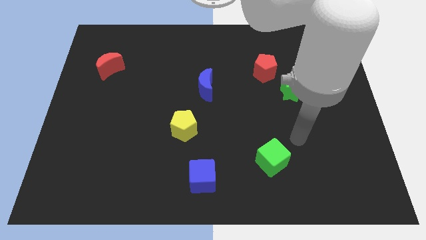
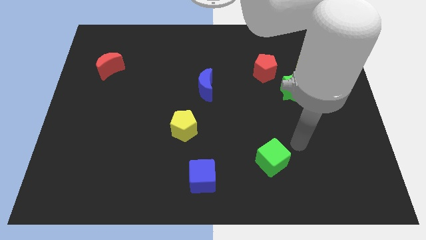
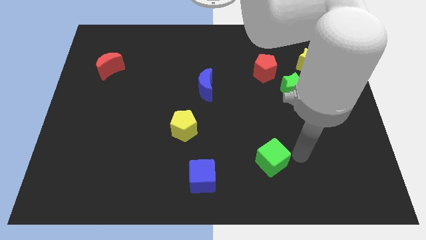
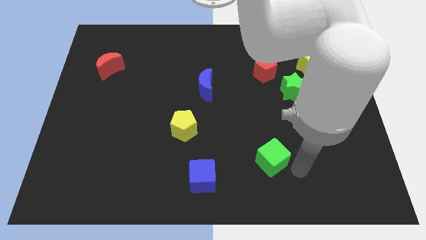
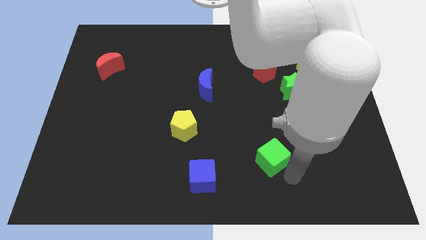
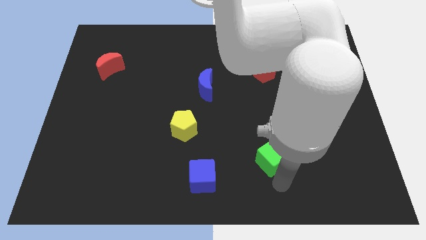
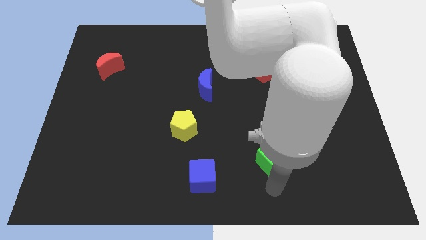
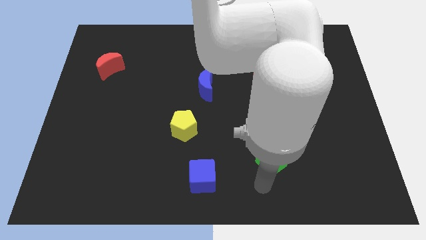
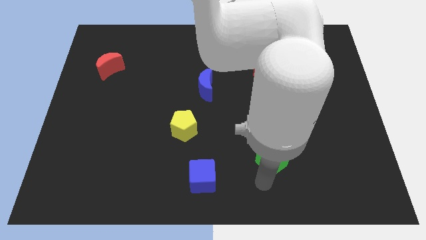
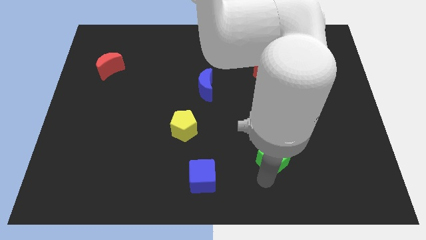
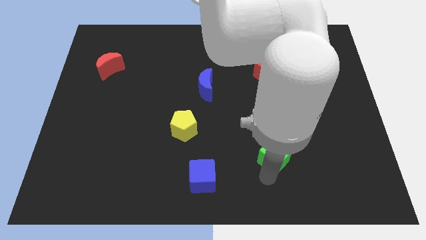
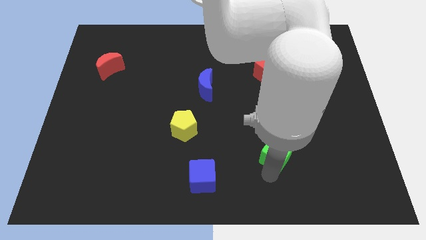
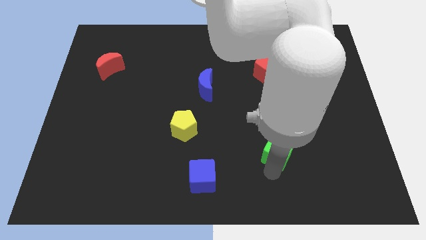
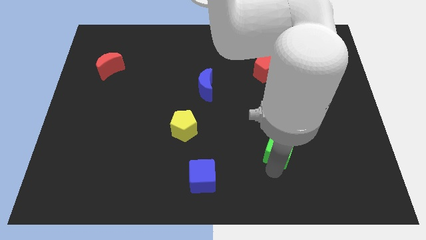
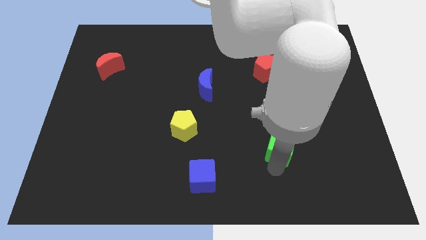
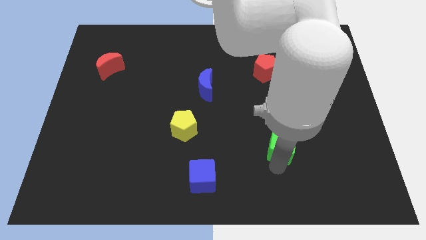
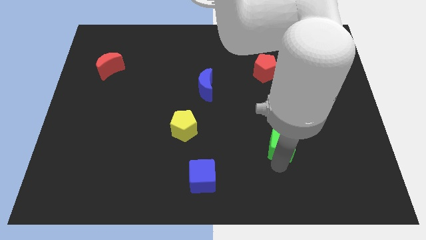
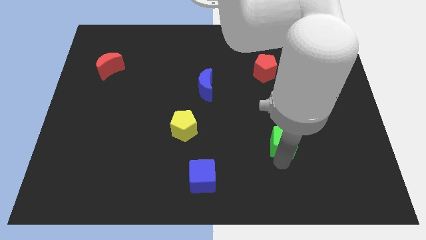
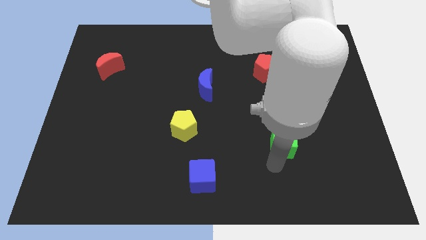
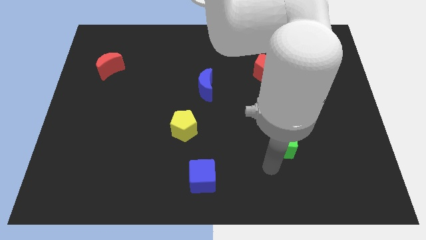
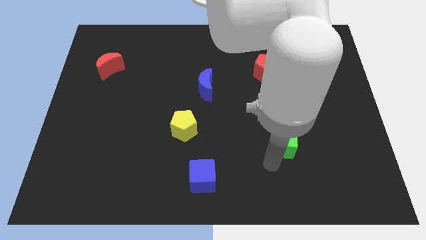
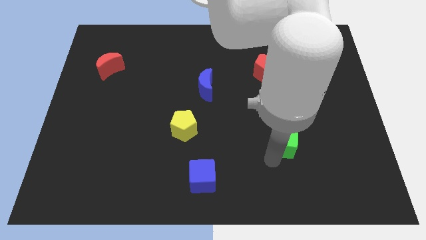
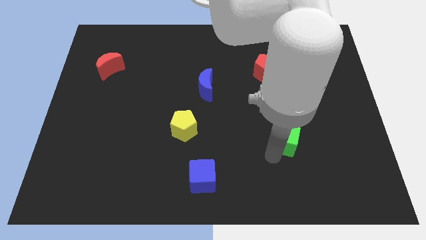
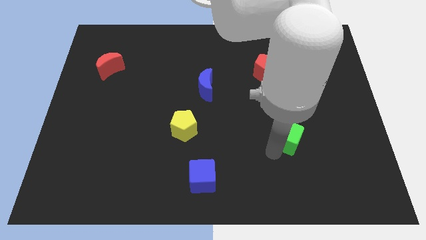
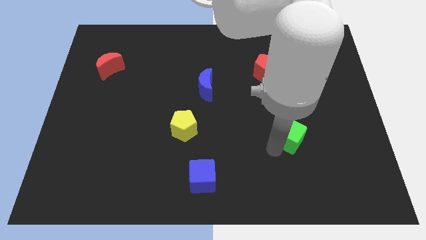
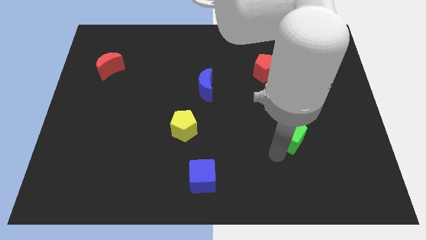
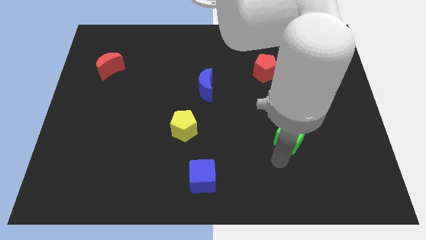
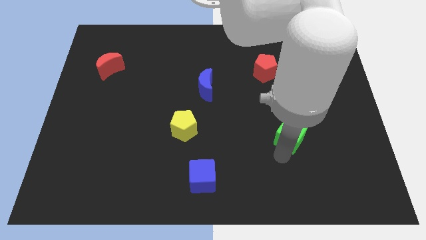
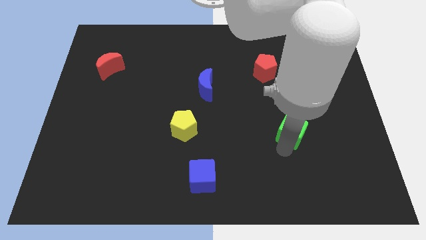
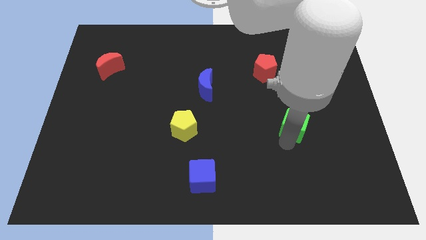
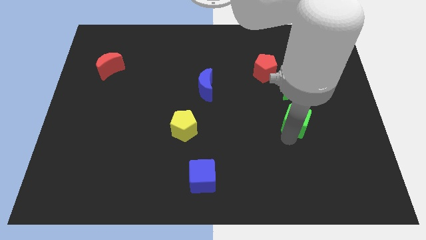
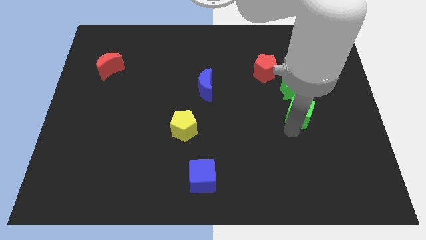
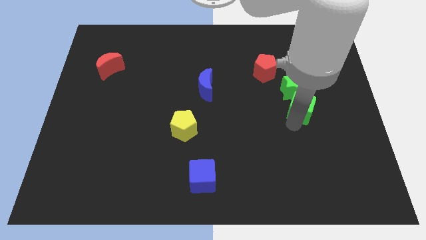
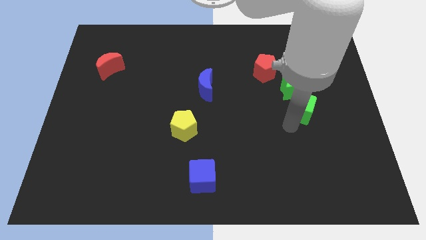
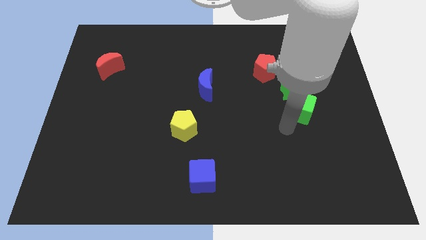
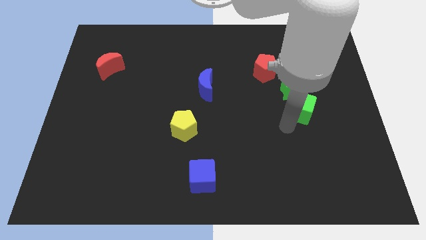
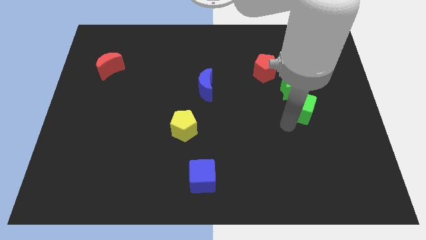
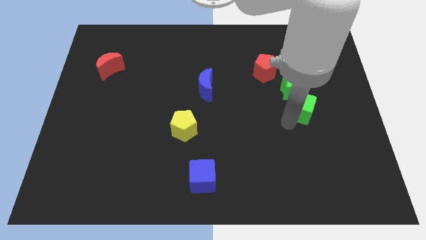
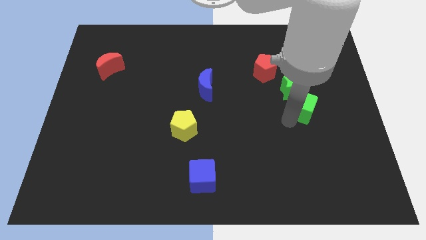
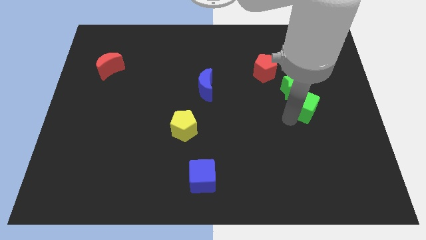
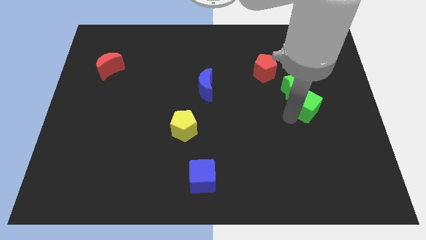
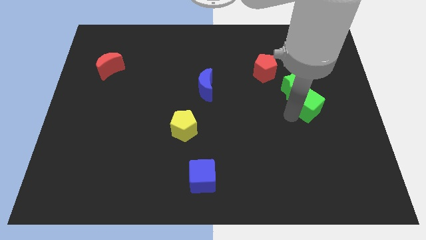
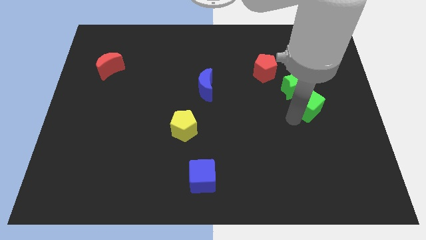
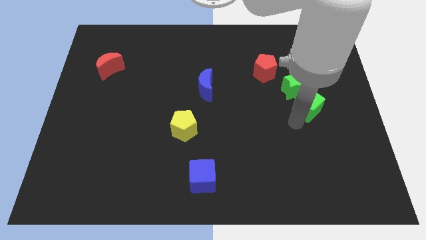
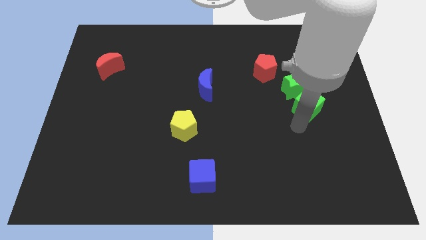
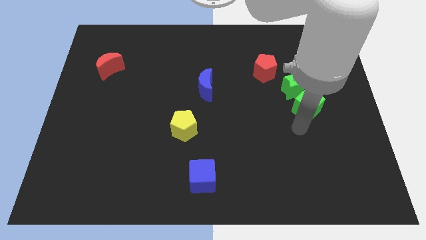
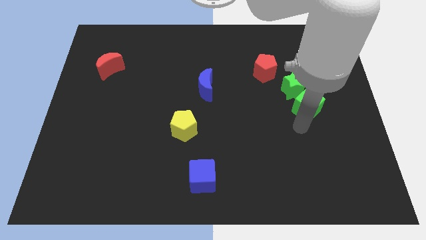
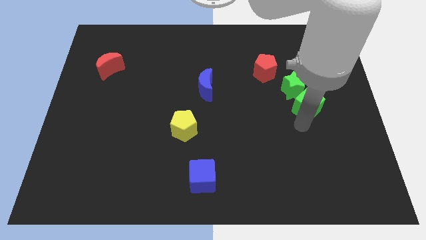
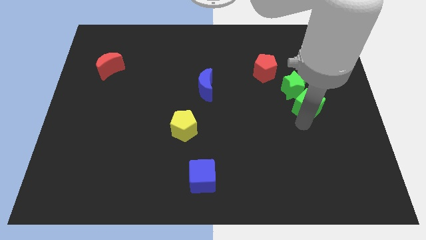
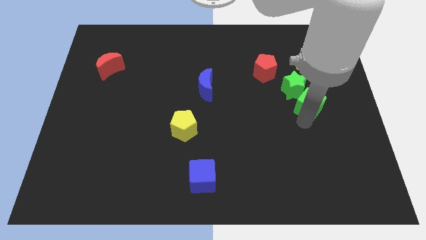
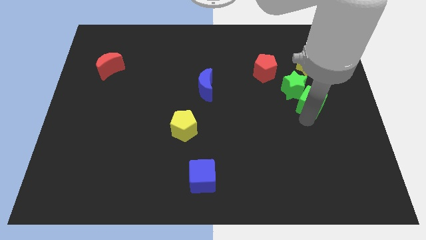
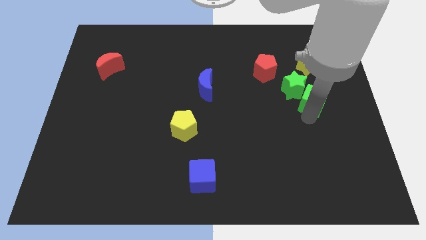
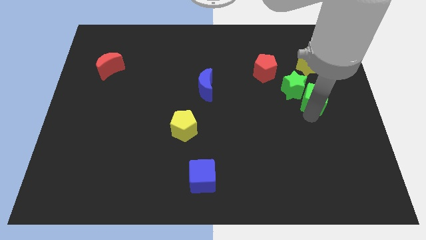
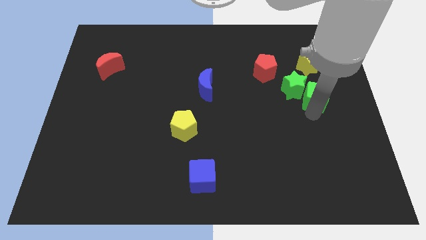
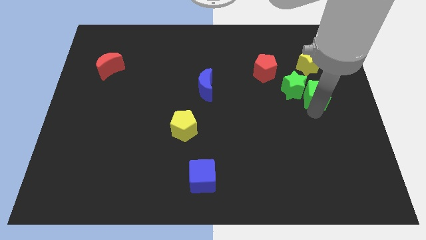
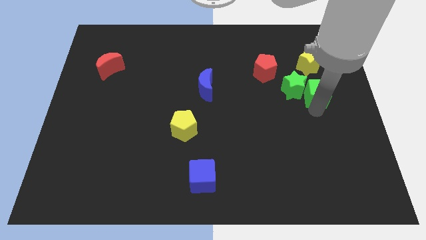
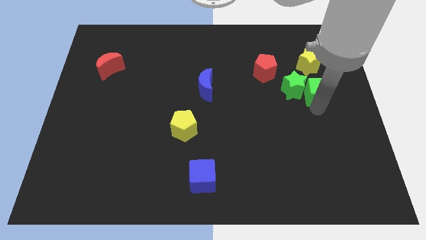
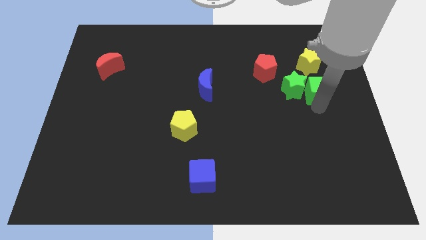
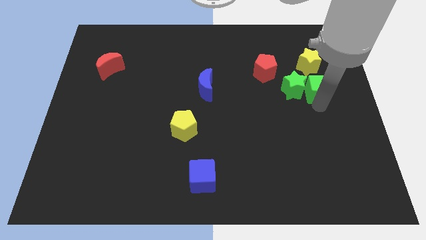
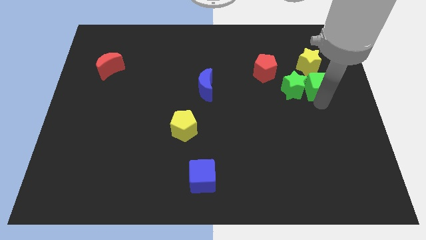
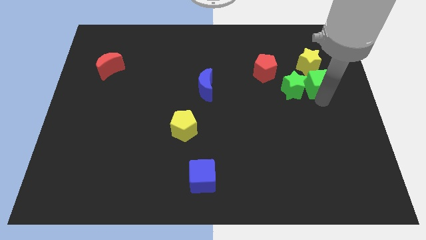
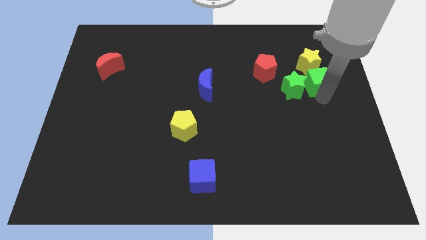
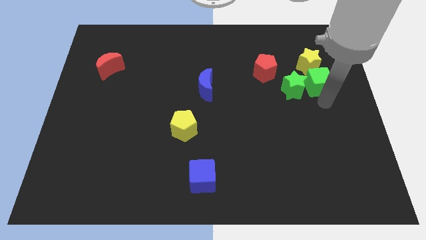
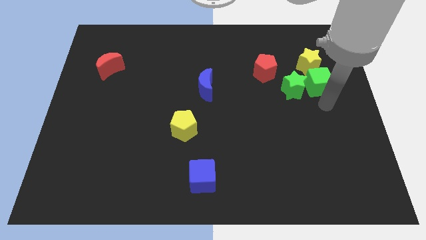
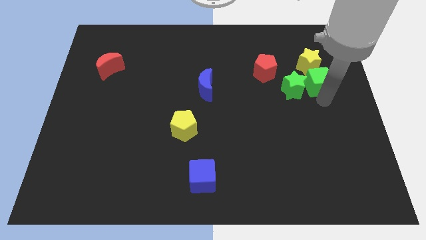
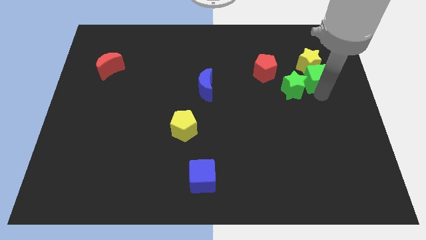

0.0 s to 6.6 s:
push the green cube close to the yellow star

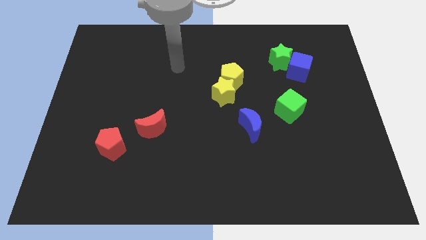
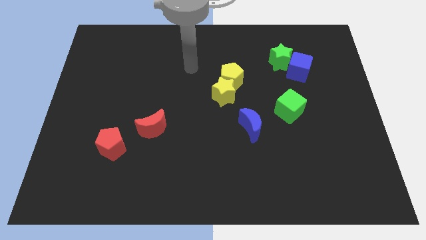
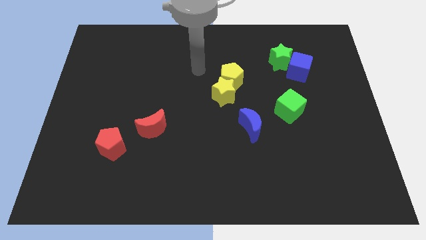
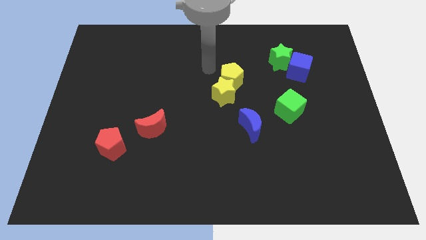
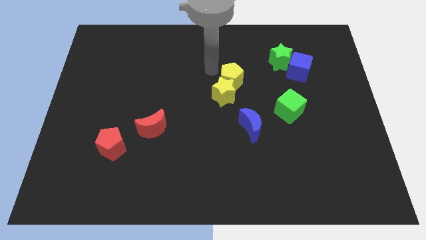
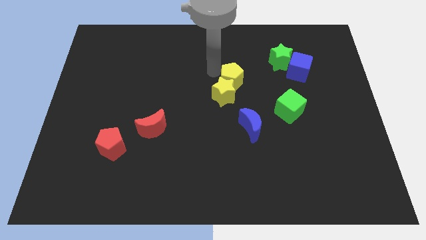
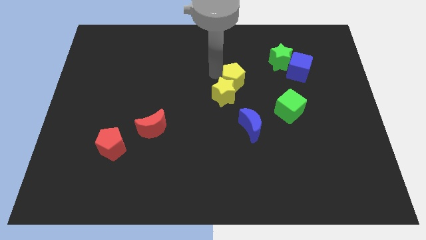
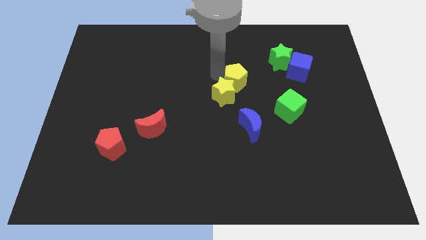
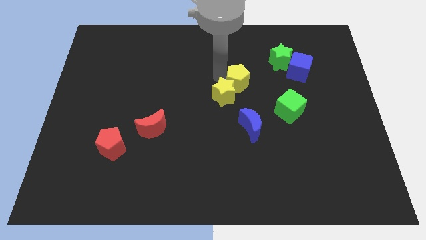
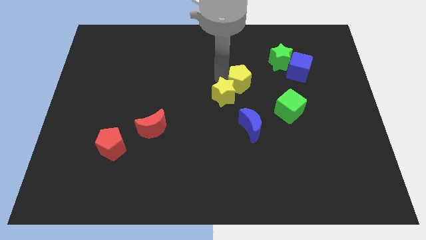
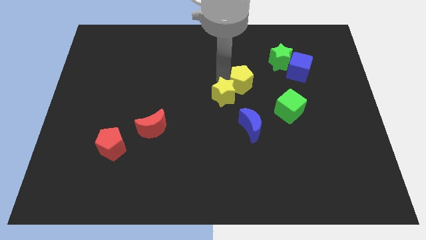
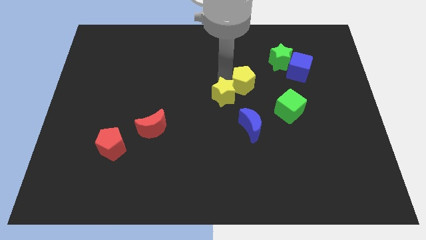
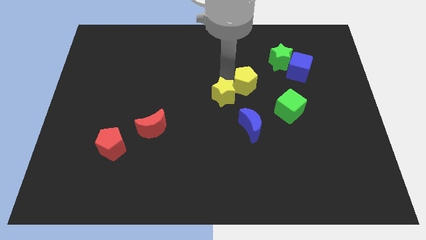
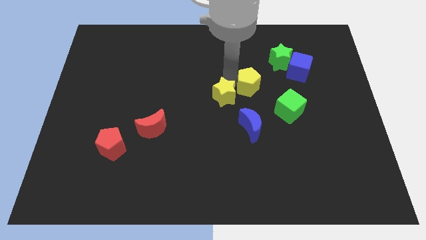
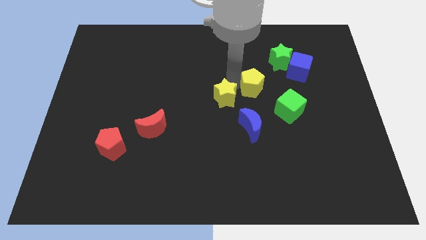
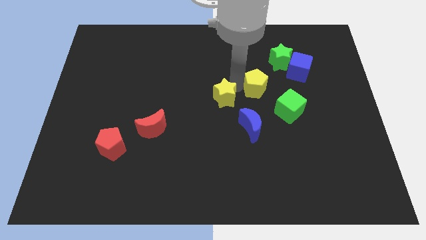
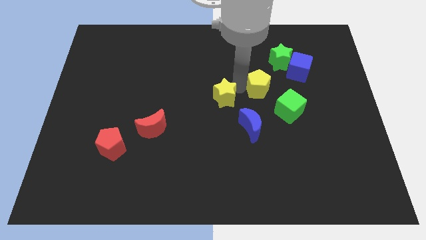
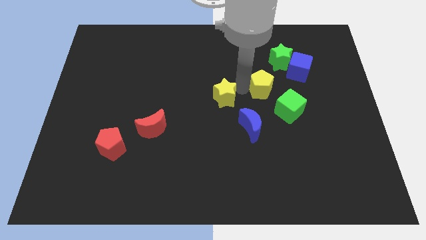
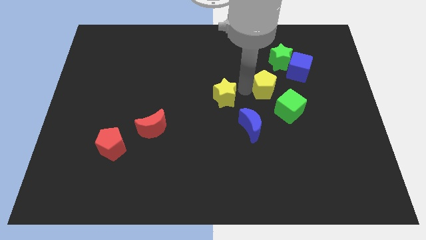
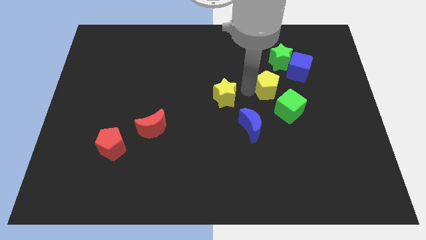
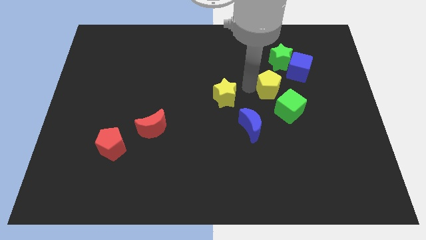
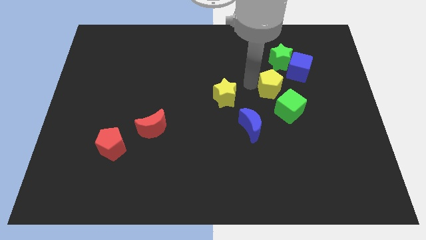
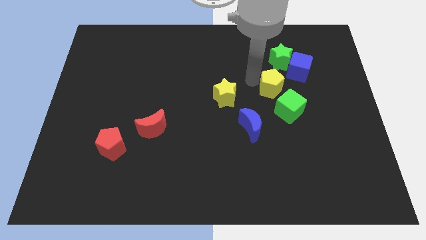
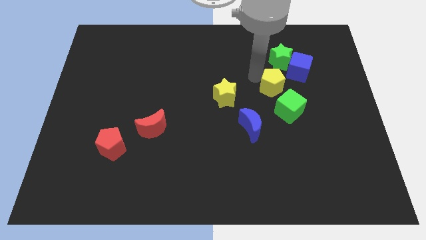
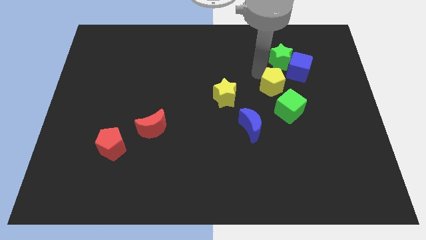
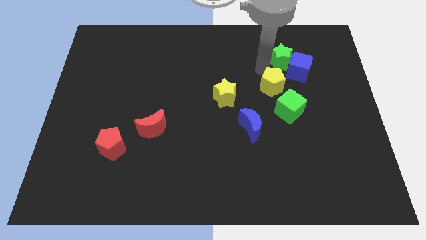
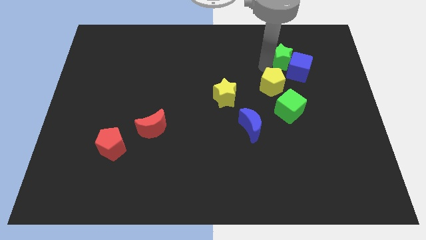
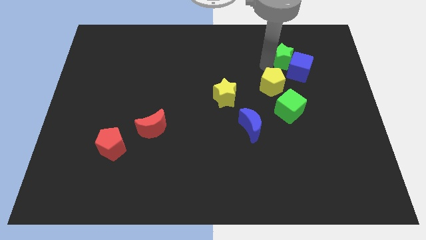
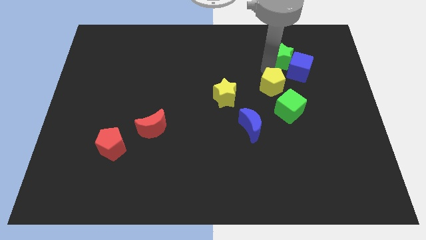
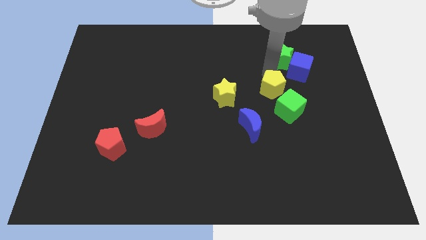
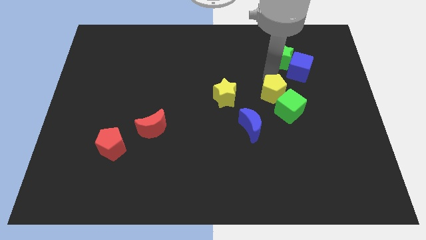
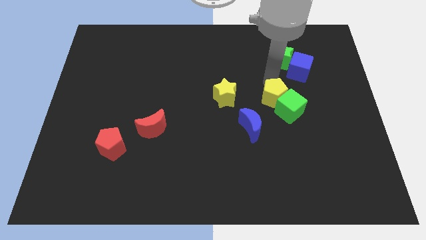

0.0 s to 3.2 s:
put the yellow pentagon next to the green cube
